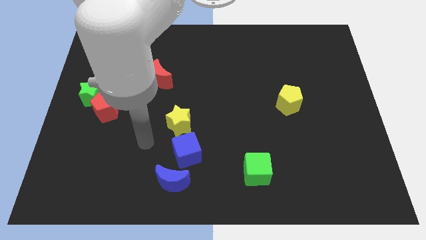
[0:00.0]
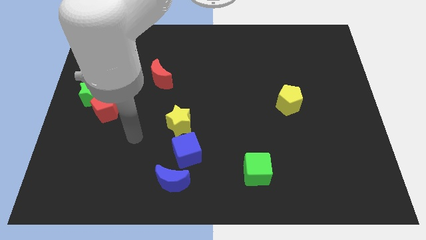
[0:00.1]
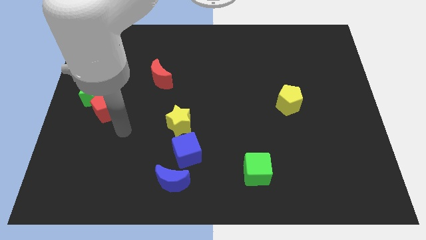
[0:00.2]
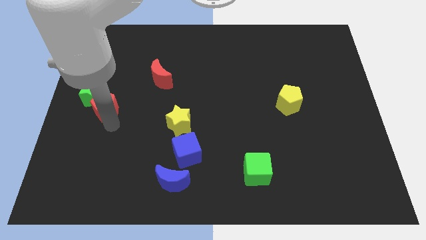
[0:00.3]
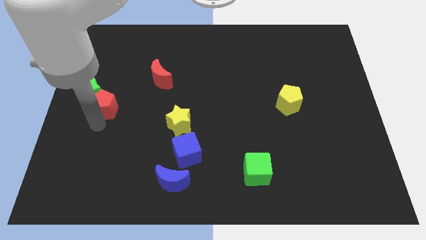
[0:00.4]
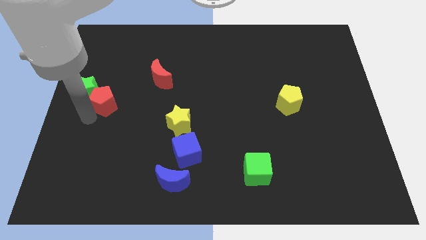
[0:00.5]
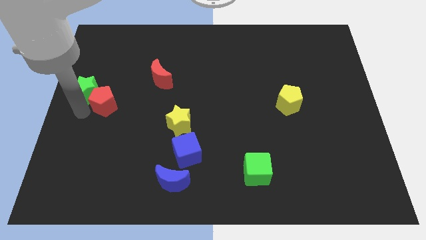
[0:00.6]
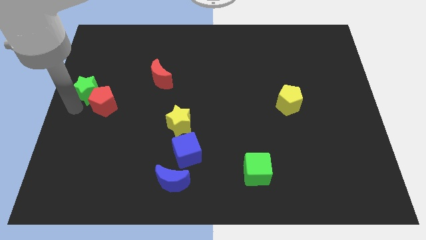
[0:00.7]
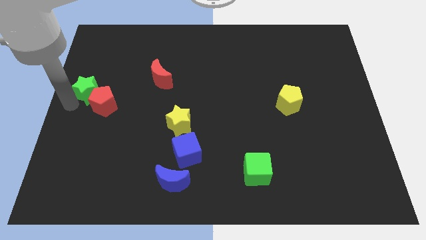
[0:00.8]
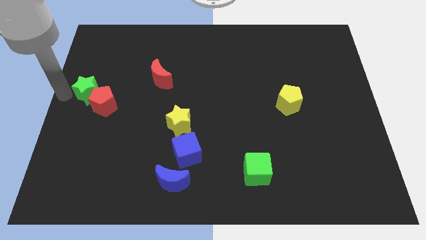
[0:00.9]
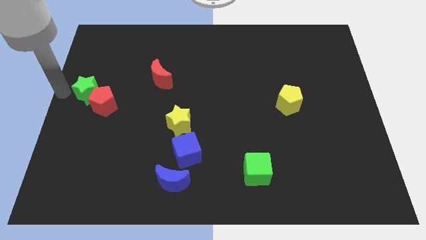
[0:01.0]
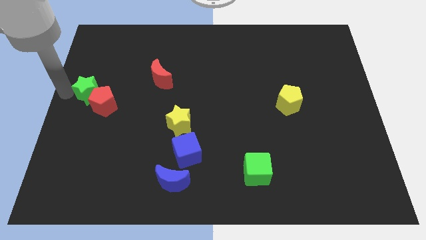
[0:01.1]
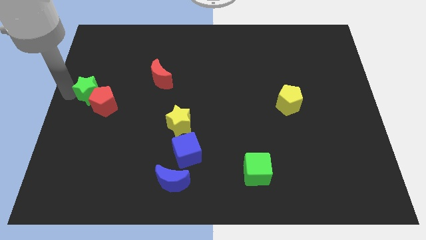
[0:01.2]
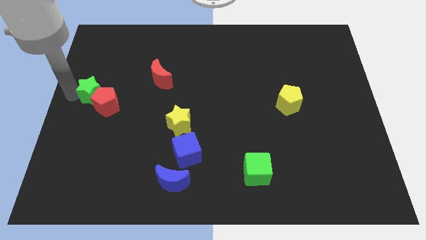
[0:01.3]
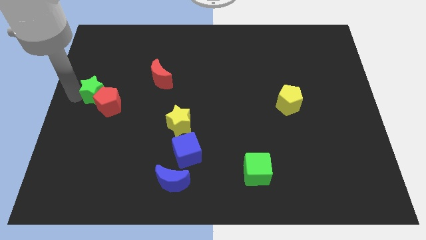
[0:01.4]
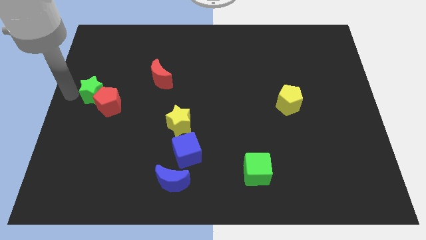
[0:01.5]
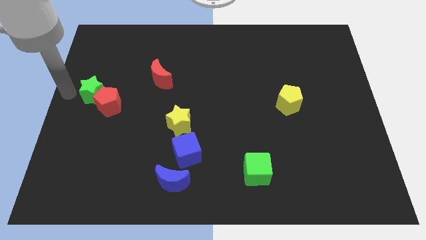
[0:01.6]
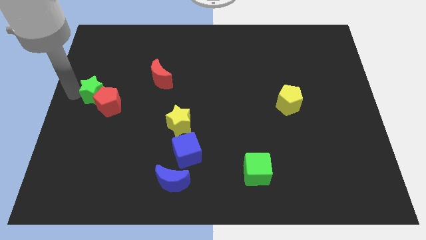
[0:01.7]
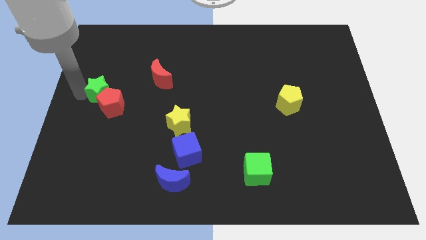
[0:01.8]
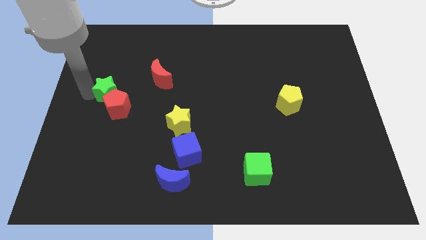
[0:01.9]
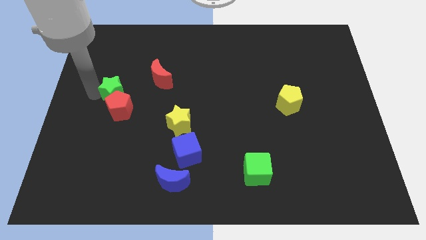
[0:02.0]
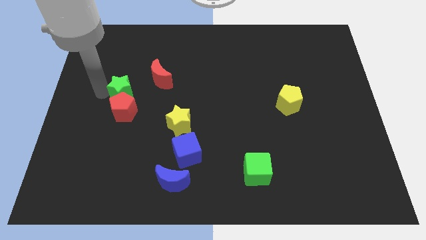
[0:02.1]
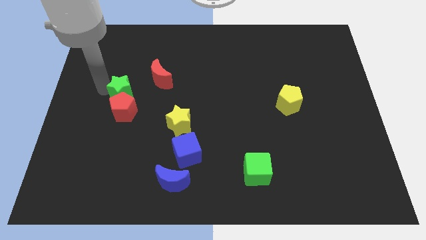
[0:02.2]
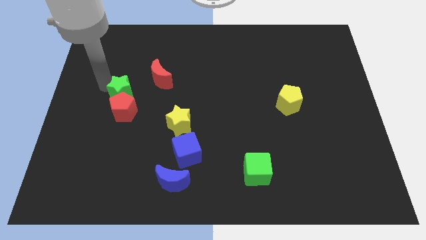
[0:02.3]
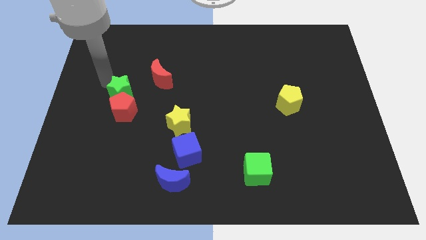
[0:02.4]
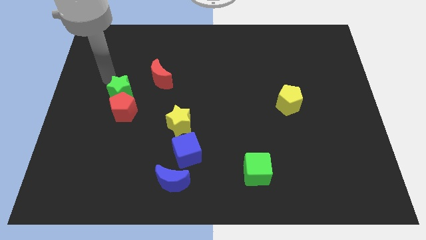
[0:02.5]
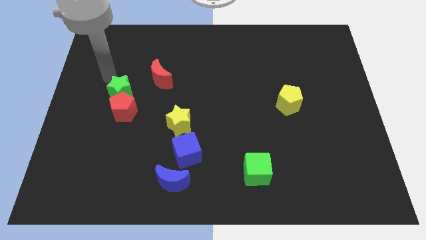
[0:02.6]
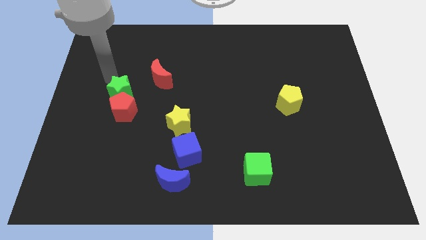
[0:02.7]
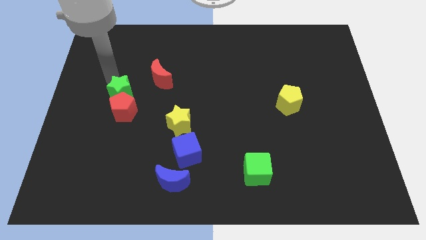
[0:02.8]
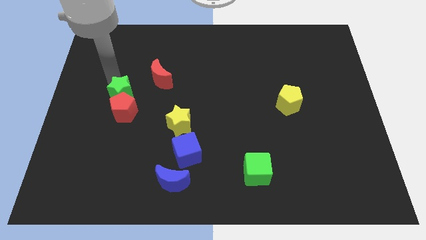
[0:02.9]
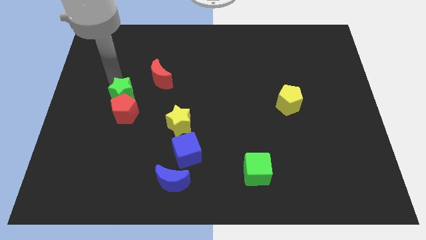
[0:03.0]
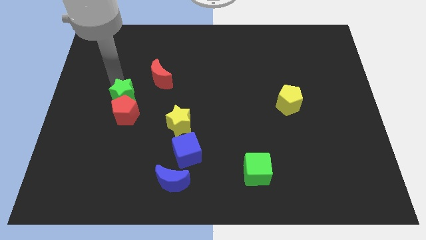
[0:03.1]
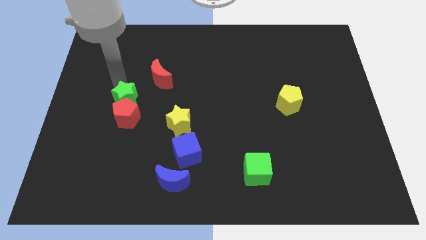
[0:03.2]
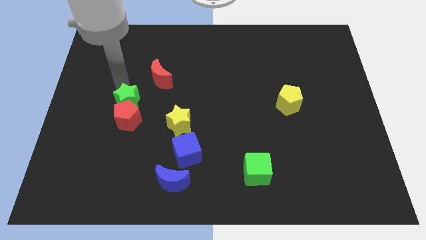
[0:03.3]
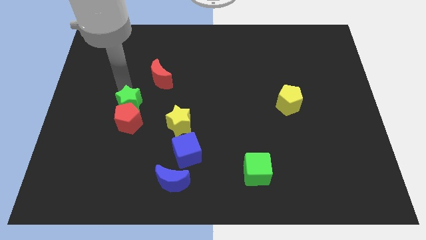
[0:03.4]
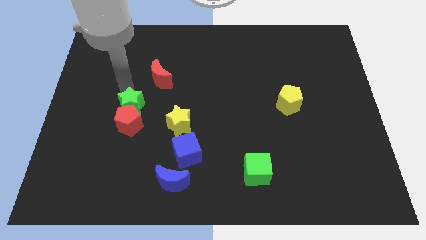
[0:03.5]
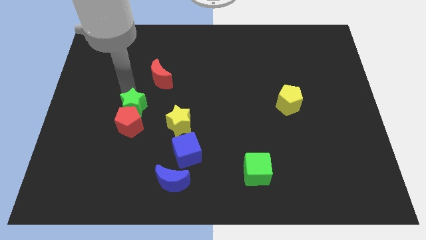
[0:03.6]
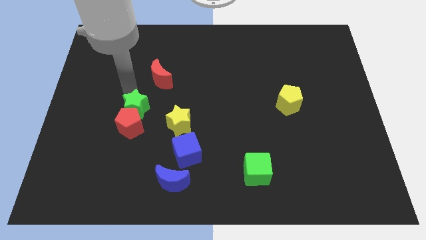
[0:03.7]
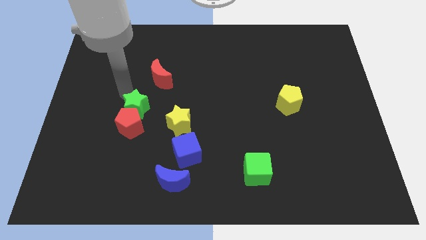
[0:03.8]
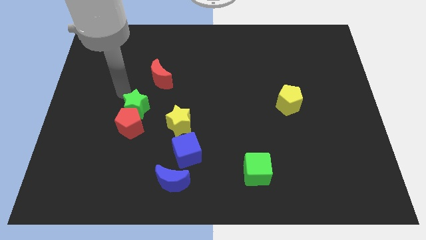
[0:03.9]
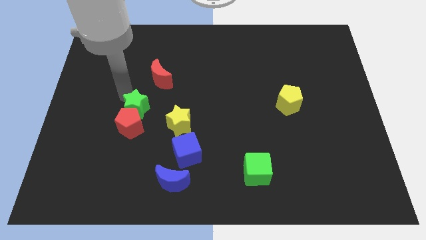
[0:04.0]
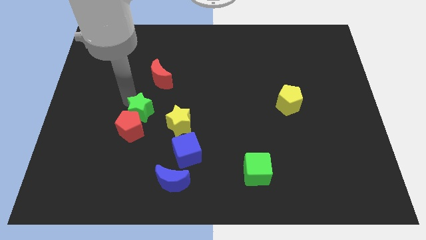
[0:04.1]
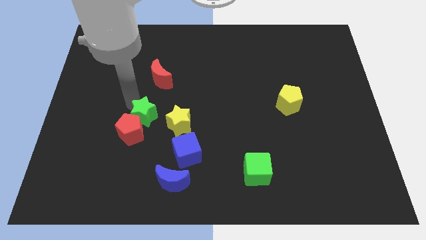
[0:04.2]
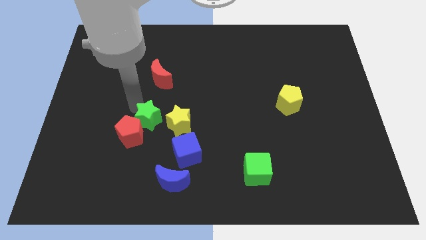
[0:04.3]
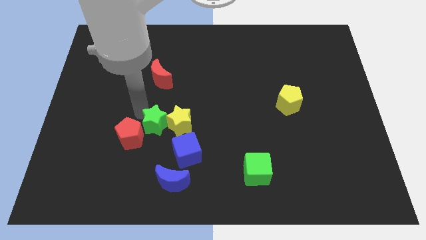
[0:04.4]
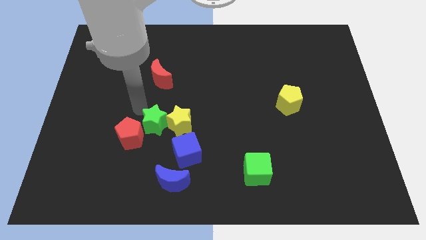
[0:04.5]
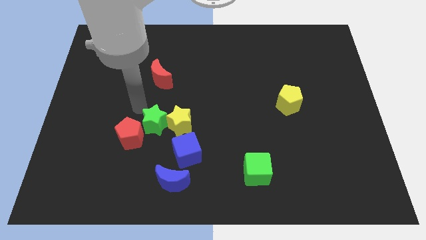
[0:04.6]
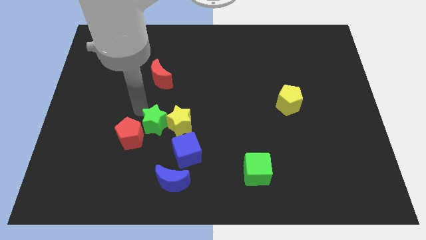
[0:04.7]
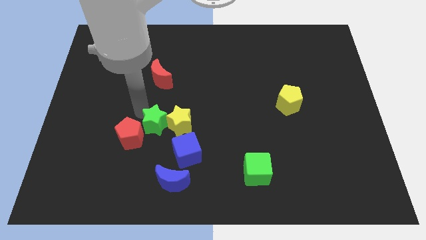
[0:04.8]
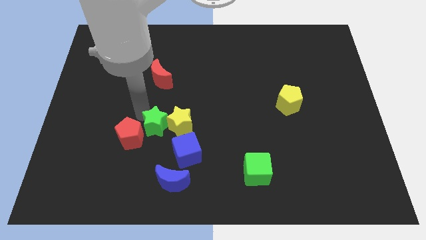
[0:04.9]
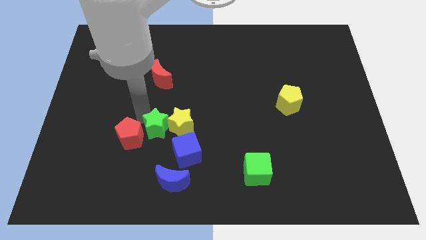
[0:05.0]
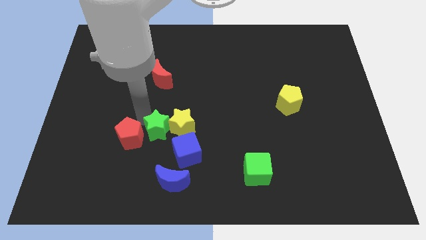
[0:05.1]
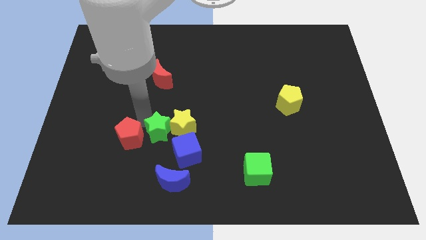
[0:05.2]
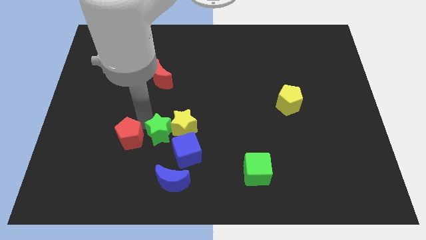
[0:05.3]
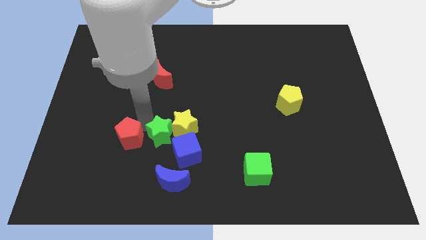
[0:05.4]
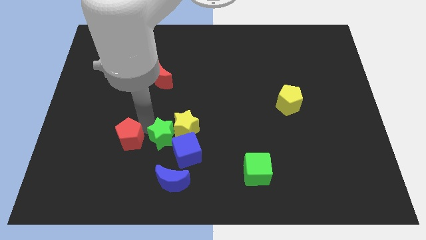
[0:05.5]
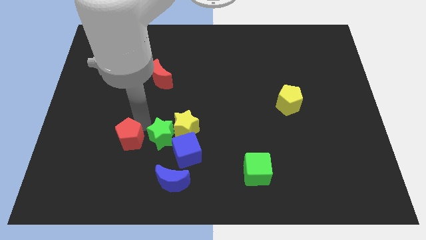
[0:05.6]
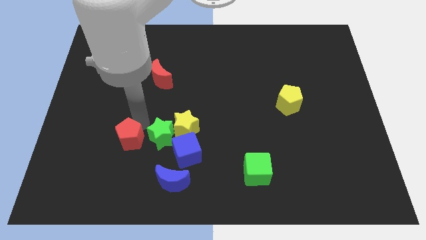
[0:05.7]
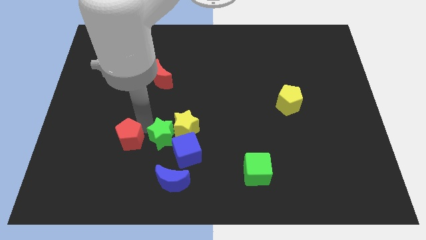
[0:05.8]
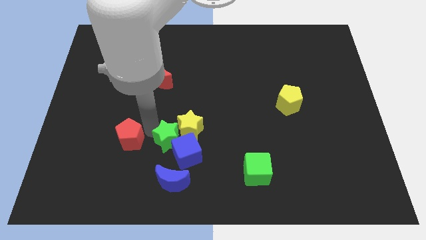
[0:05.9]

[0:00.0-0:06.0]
put the green star next to the blue cube

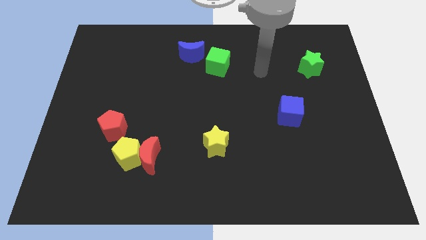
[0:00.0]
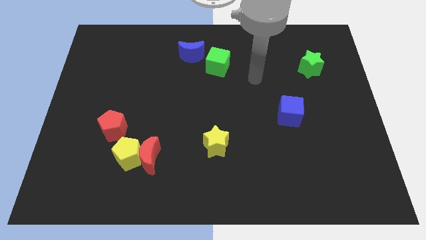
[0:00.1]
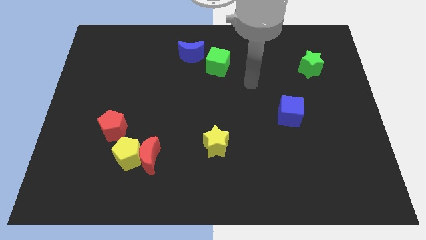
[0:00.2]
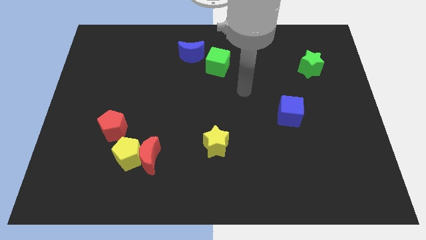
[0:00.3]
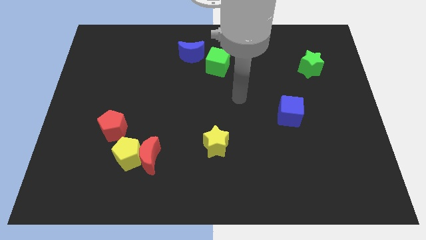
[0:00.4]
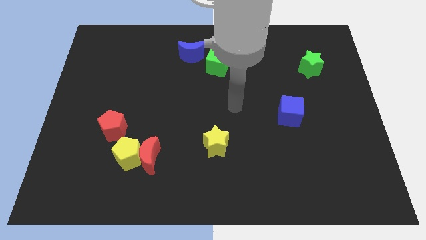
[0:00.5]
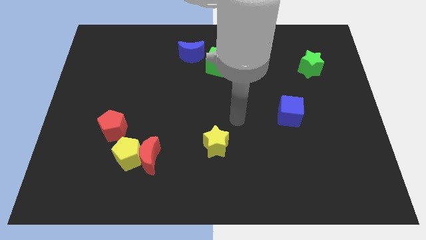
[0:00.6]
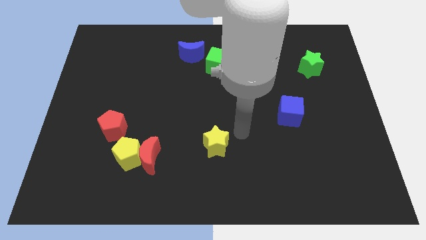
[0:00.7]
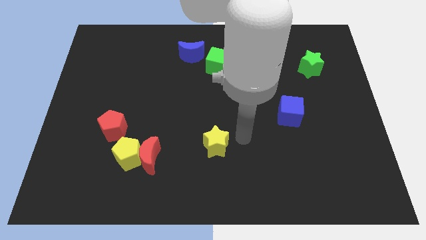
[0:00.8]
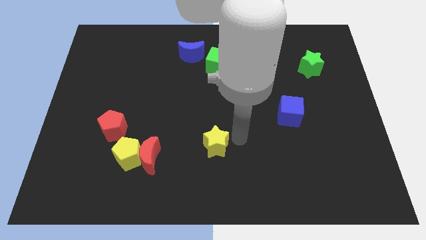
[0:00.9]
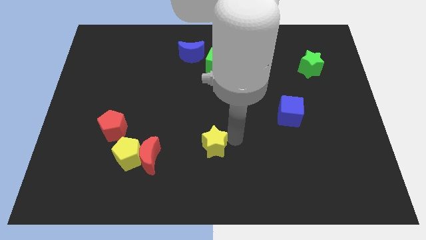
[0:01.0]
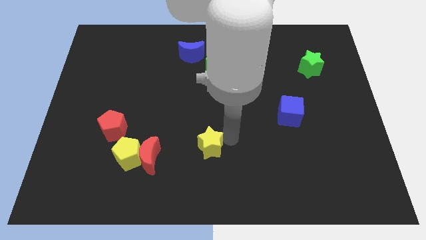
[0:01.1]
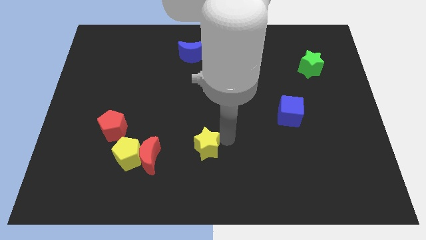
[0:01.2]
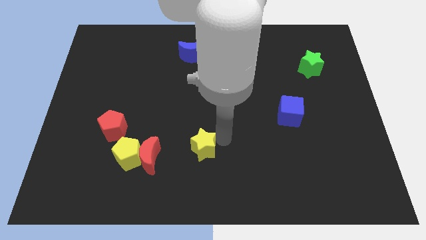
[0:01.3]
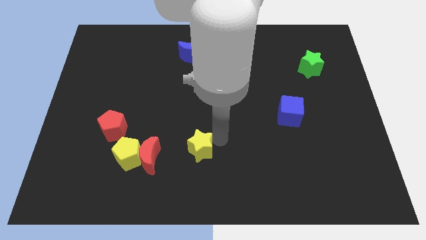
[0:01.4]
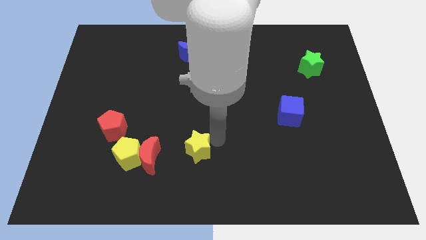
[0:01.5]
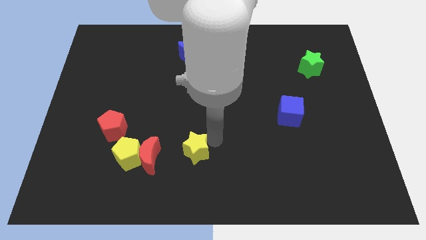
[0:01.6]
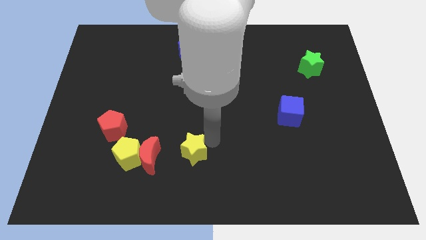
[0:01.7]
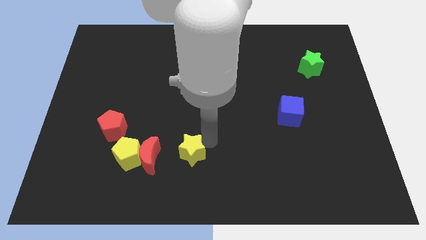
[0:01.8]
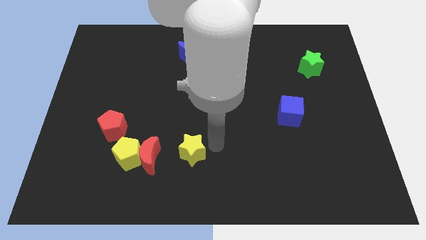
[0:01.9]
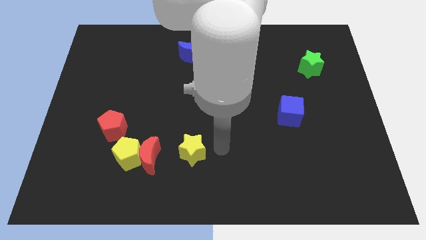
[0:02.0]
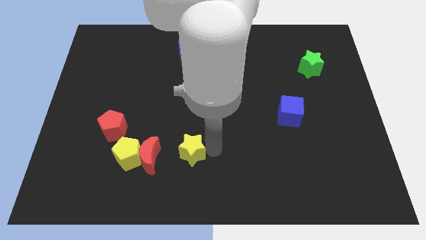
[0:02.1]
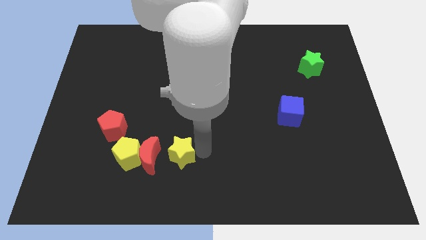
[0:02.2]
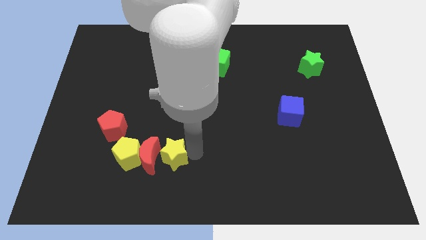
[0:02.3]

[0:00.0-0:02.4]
put the yellow star next to the red moon
